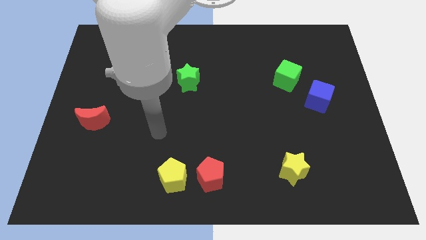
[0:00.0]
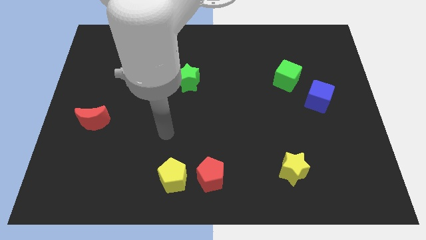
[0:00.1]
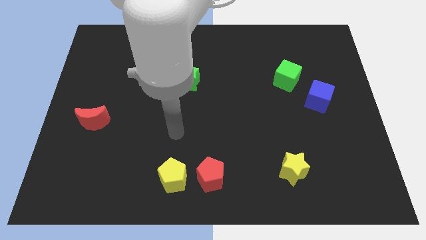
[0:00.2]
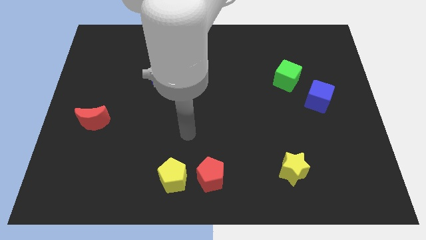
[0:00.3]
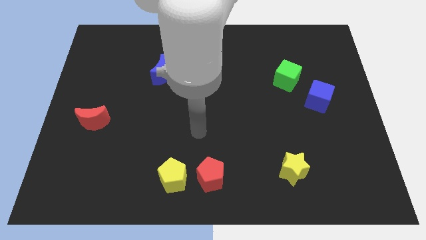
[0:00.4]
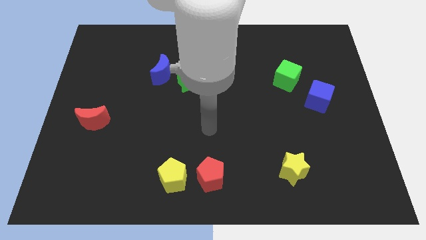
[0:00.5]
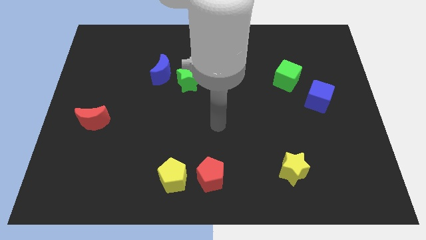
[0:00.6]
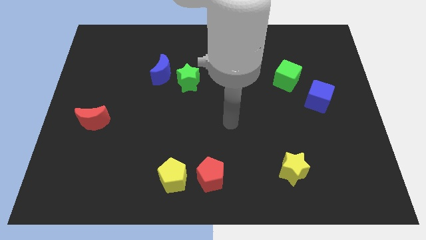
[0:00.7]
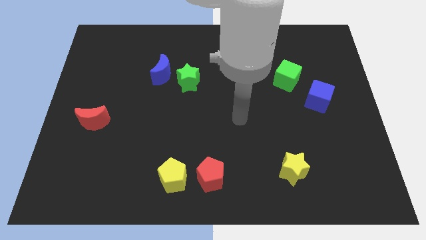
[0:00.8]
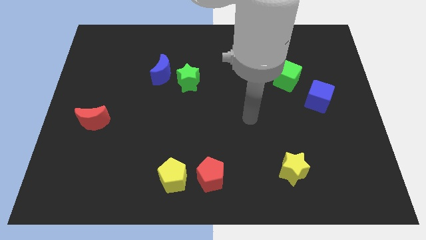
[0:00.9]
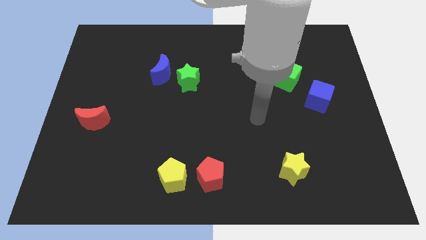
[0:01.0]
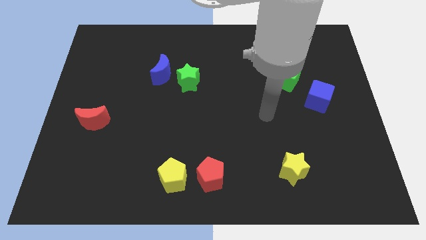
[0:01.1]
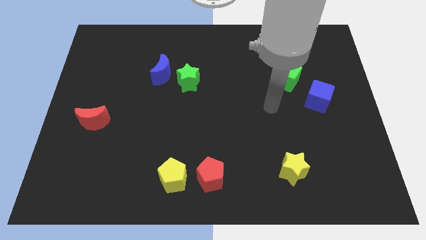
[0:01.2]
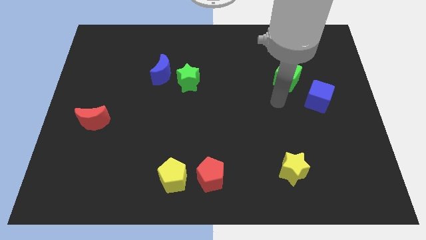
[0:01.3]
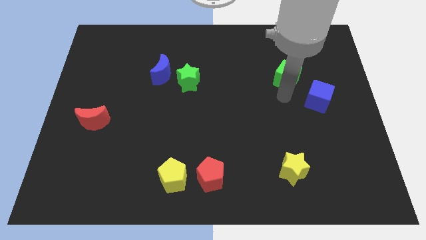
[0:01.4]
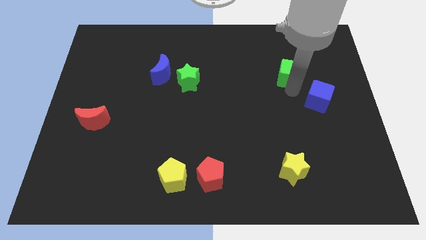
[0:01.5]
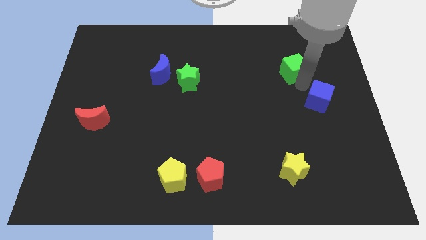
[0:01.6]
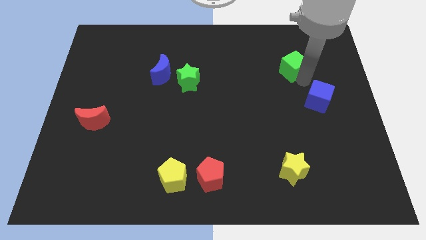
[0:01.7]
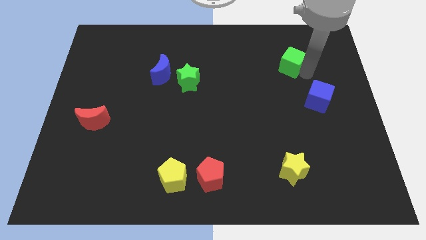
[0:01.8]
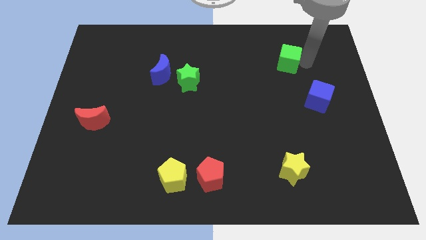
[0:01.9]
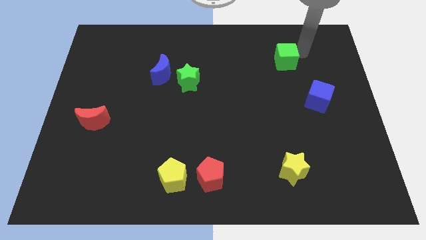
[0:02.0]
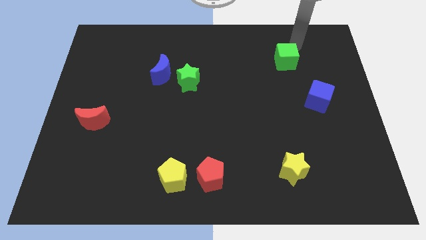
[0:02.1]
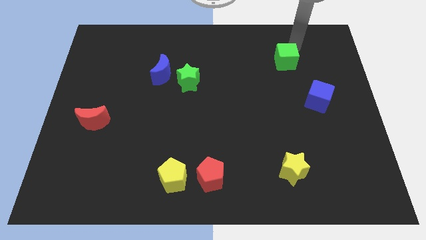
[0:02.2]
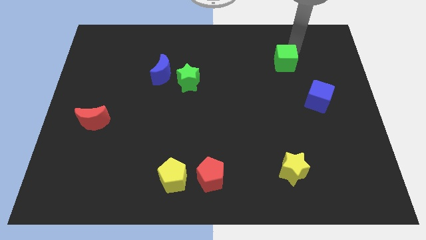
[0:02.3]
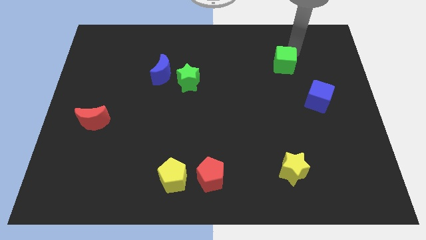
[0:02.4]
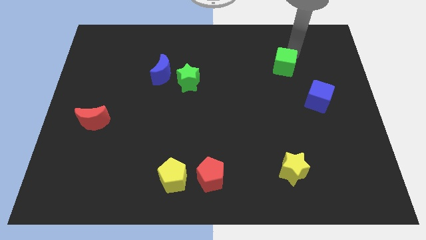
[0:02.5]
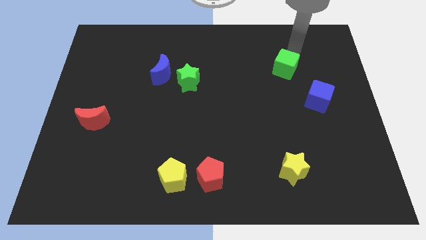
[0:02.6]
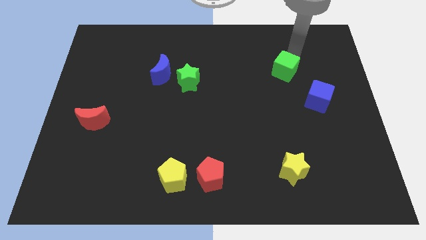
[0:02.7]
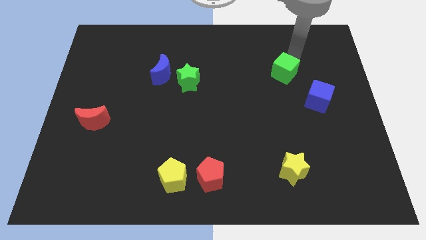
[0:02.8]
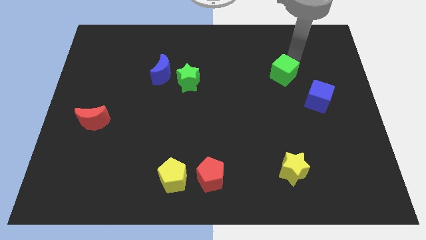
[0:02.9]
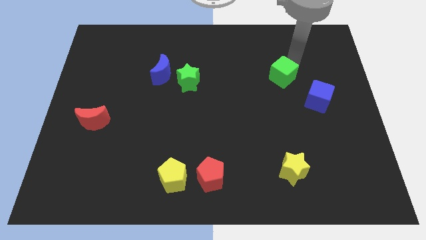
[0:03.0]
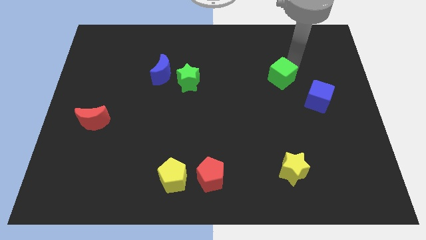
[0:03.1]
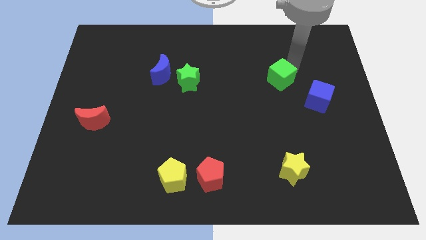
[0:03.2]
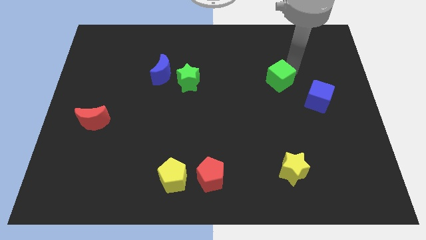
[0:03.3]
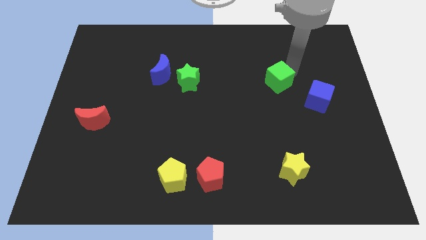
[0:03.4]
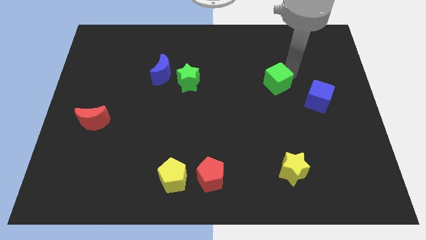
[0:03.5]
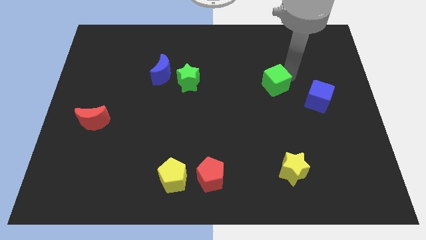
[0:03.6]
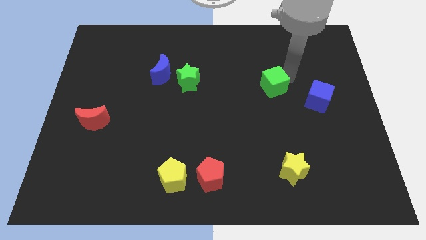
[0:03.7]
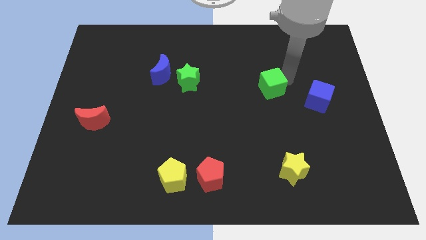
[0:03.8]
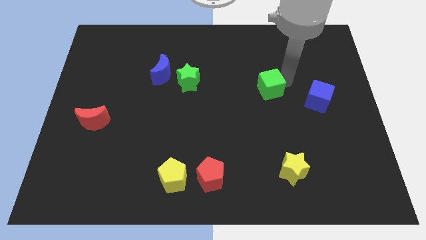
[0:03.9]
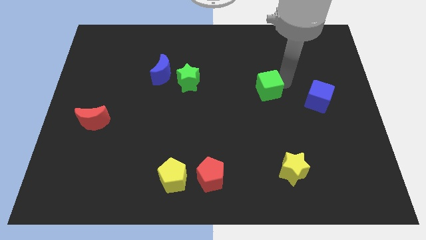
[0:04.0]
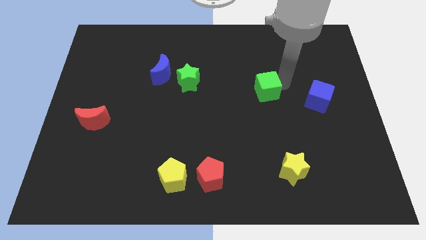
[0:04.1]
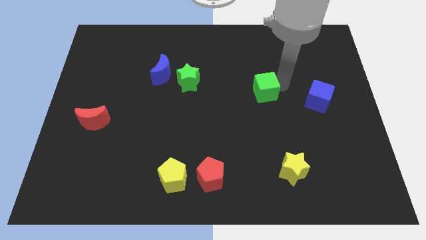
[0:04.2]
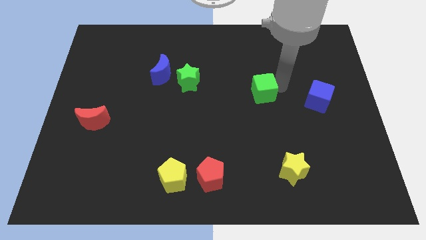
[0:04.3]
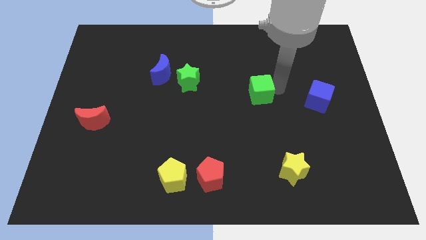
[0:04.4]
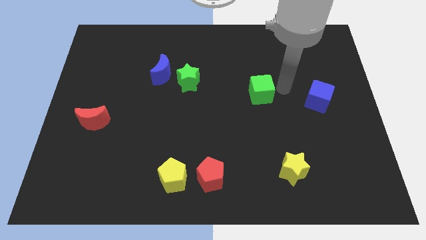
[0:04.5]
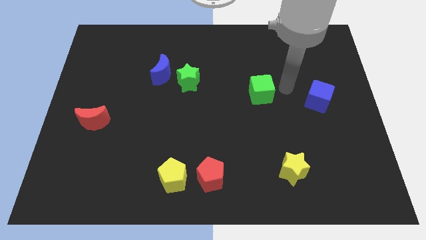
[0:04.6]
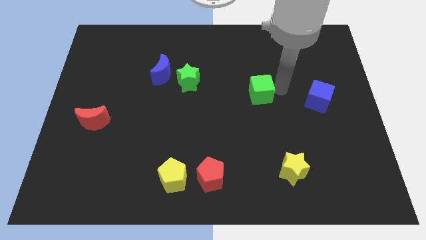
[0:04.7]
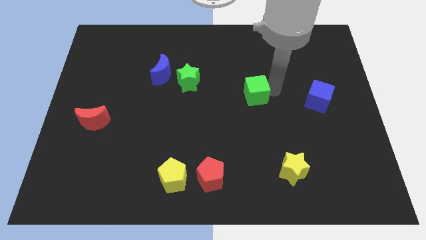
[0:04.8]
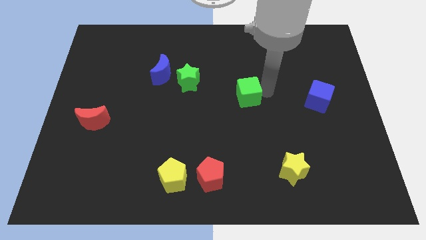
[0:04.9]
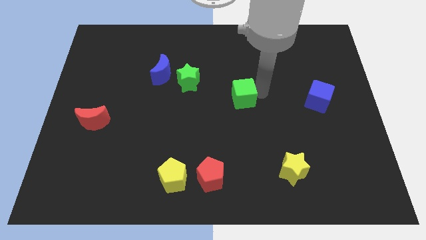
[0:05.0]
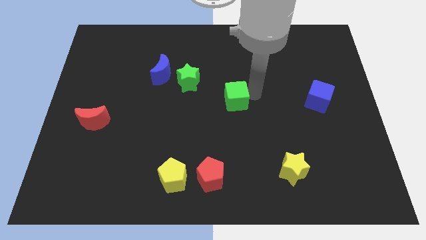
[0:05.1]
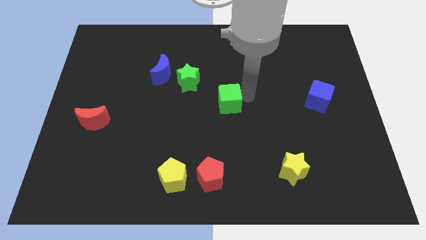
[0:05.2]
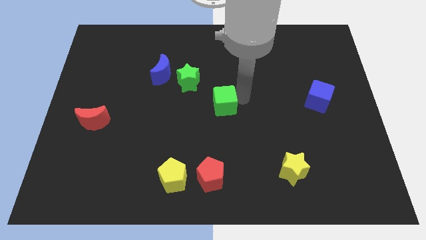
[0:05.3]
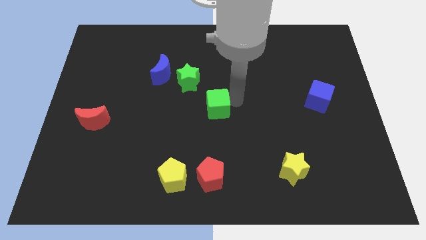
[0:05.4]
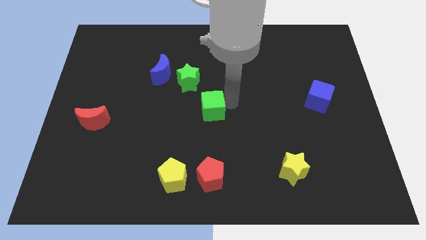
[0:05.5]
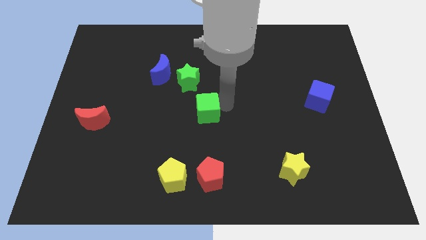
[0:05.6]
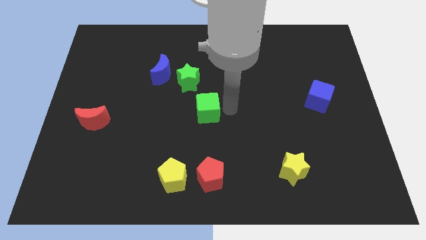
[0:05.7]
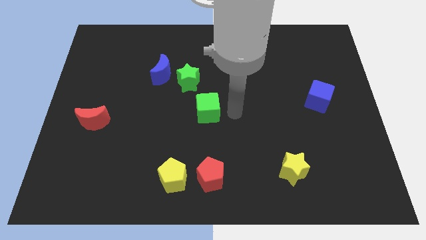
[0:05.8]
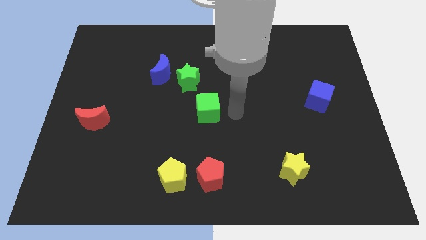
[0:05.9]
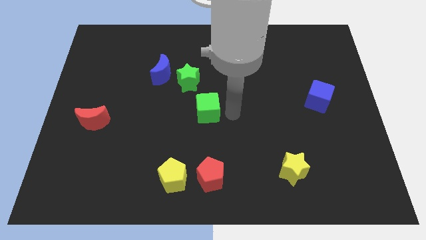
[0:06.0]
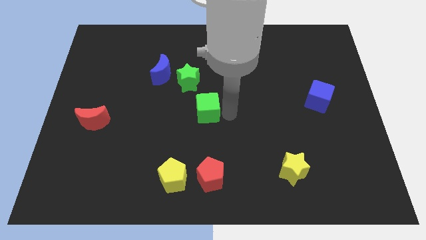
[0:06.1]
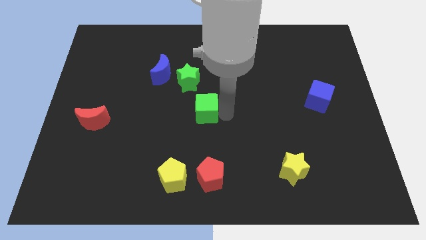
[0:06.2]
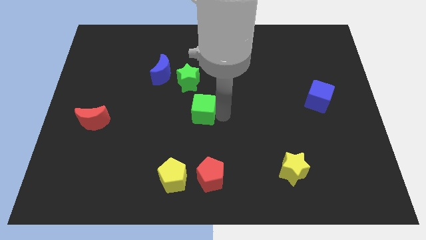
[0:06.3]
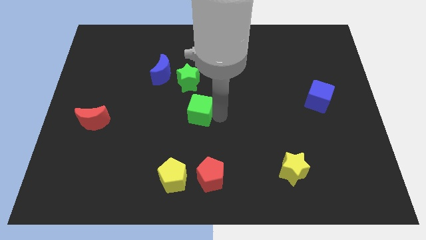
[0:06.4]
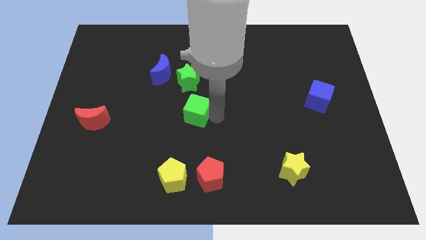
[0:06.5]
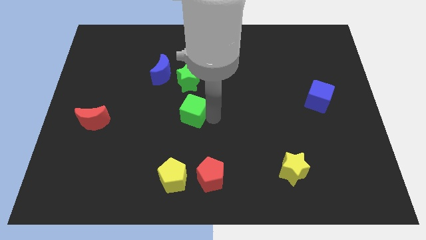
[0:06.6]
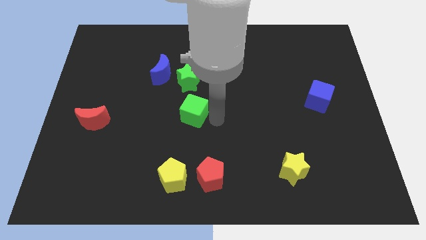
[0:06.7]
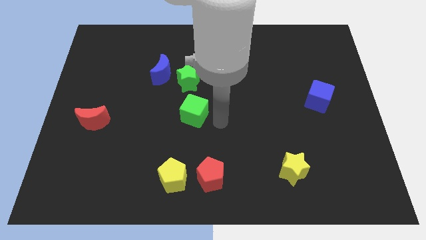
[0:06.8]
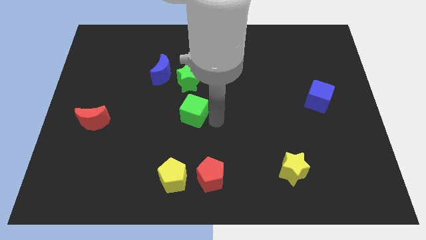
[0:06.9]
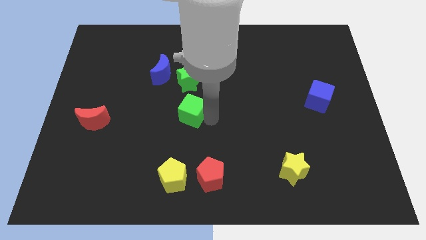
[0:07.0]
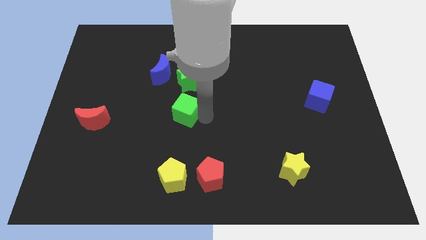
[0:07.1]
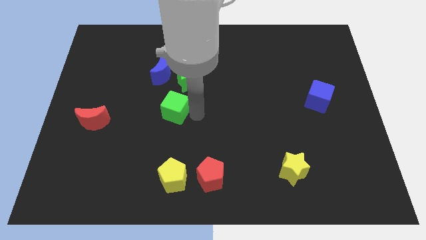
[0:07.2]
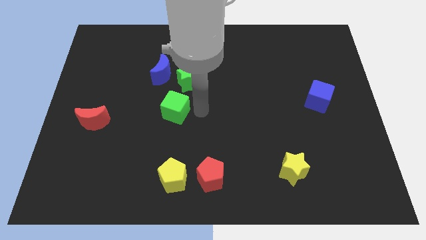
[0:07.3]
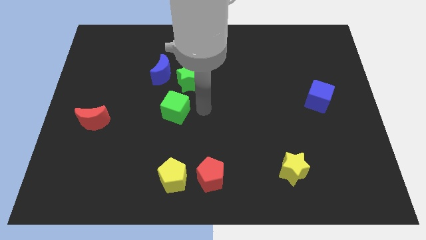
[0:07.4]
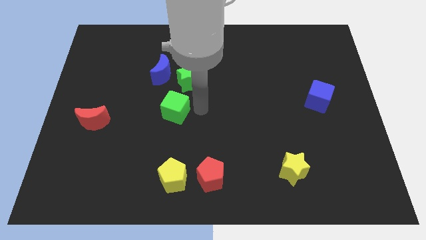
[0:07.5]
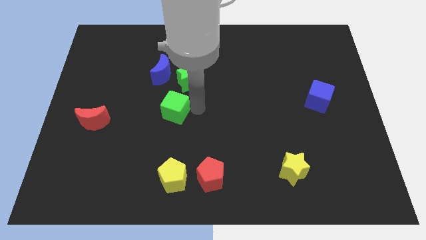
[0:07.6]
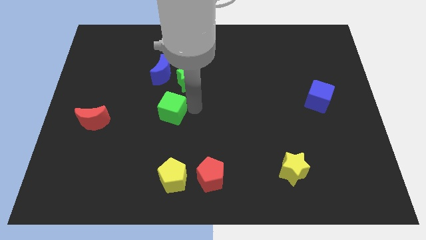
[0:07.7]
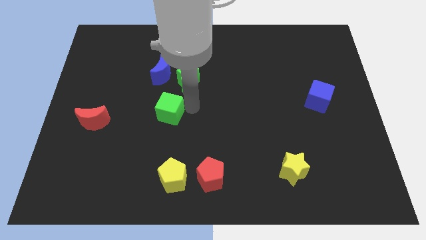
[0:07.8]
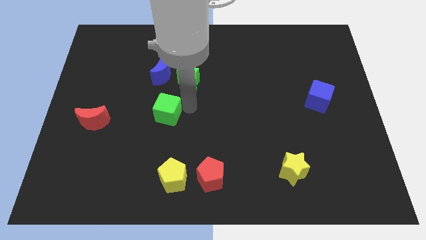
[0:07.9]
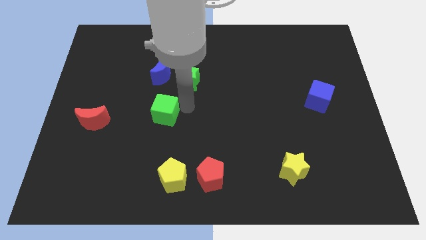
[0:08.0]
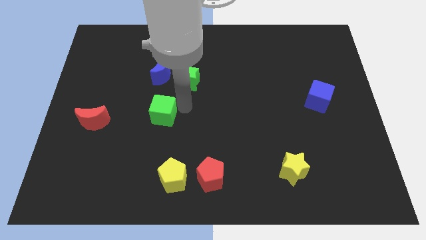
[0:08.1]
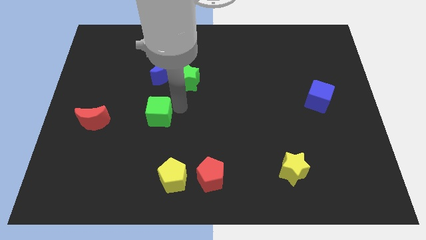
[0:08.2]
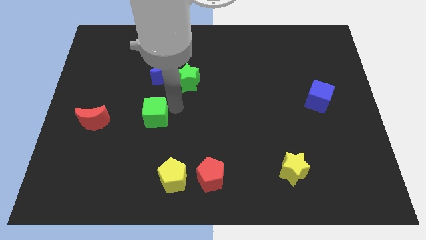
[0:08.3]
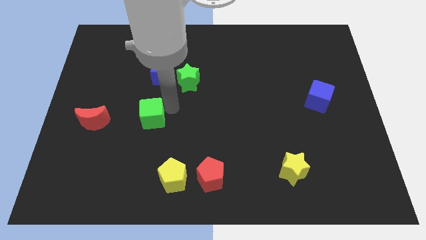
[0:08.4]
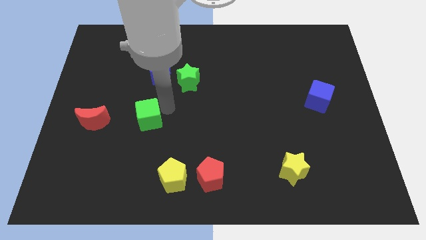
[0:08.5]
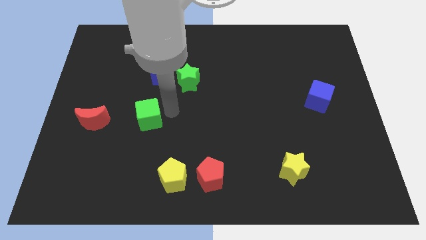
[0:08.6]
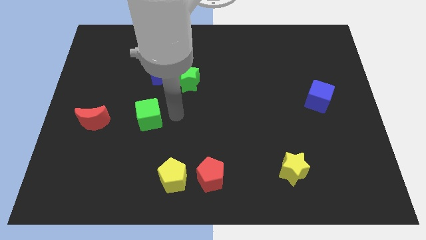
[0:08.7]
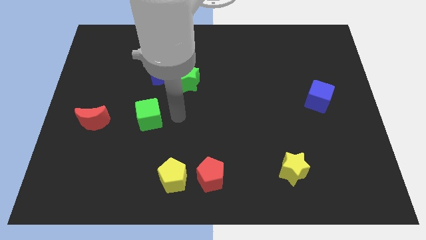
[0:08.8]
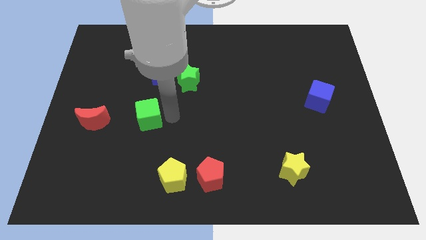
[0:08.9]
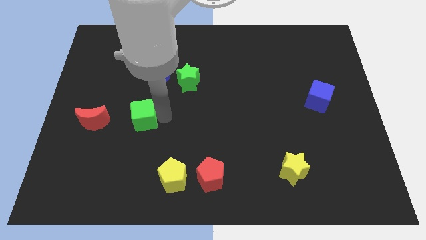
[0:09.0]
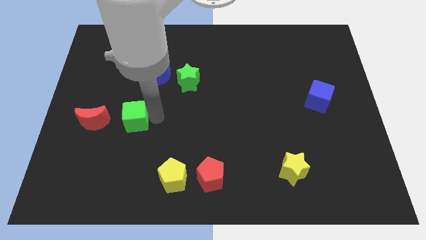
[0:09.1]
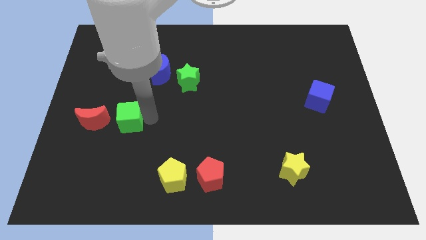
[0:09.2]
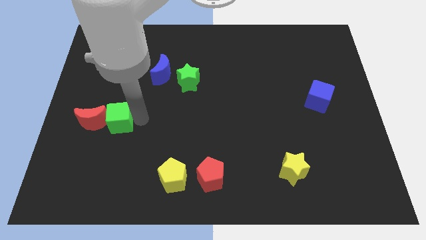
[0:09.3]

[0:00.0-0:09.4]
move the green cube towards the red moon
